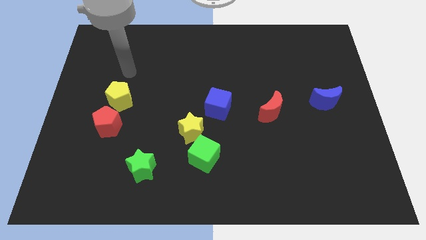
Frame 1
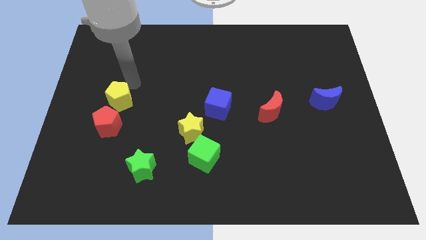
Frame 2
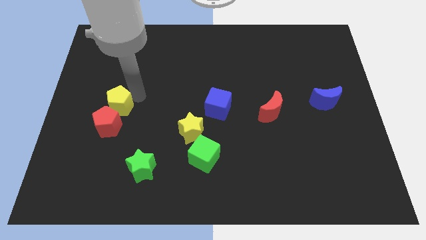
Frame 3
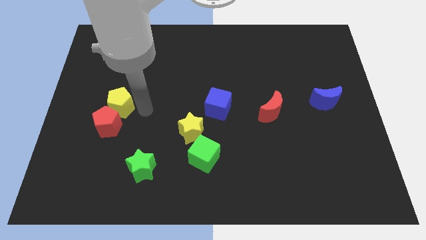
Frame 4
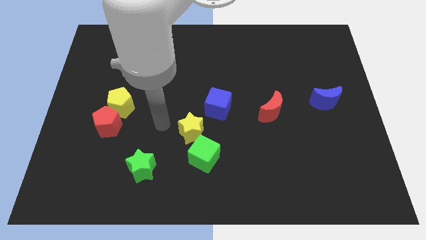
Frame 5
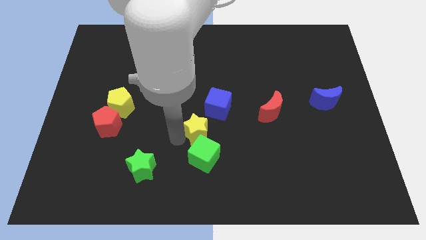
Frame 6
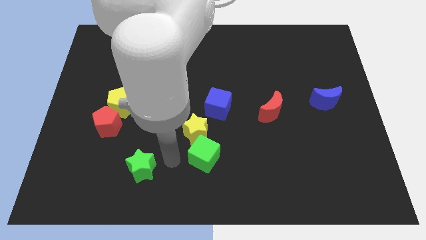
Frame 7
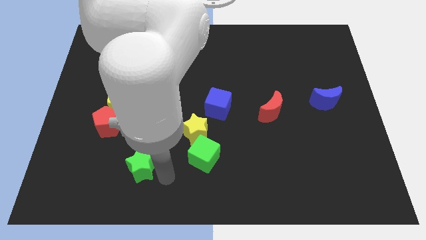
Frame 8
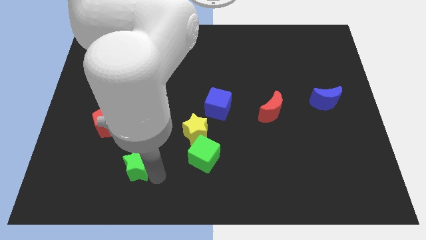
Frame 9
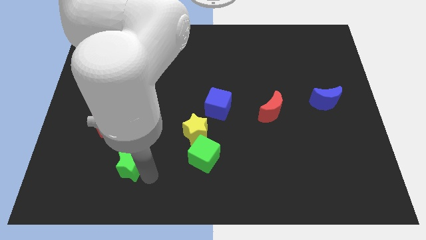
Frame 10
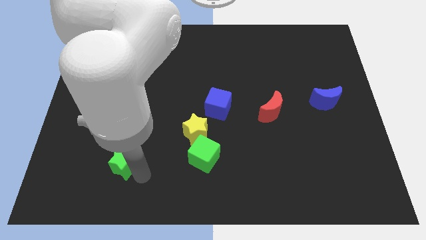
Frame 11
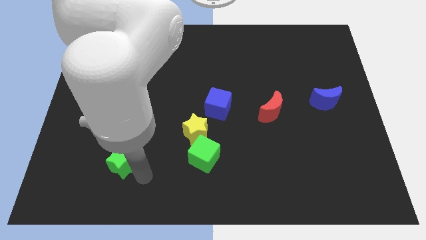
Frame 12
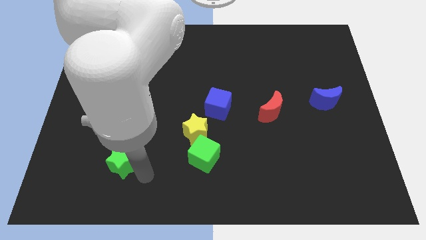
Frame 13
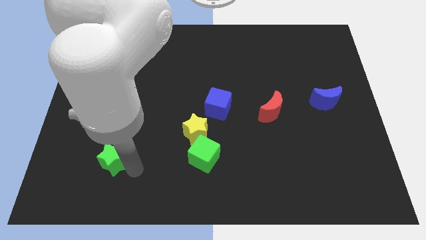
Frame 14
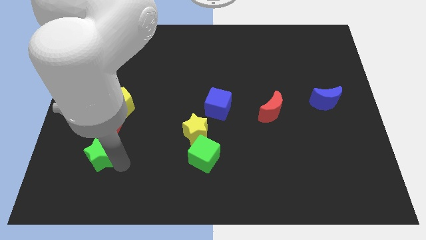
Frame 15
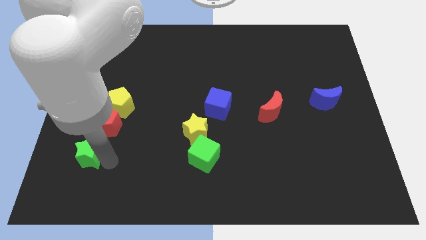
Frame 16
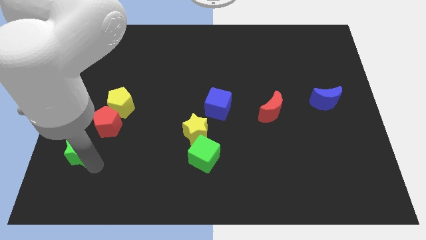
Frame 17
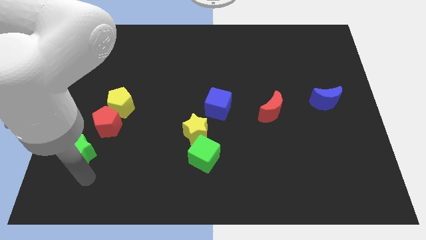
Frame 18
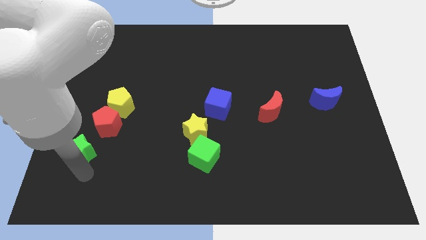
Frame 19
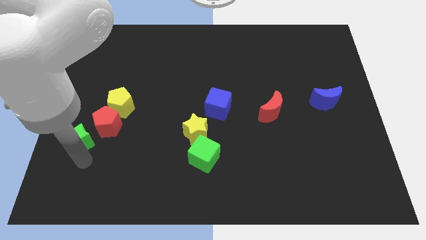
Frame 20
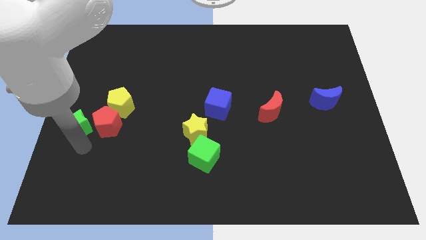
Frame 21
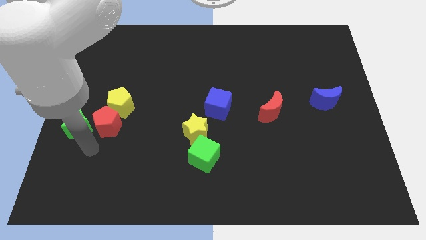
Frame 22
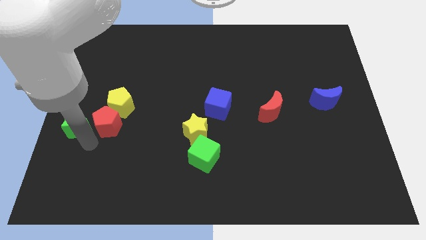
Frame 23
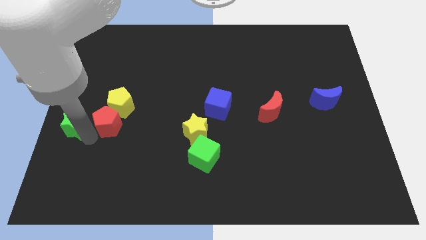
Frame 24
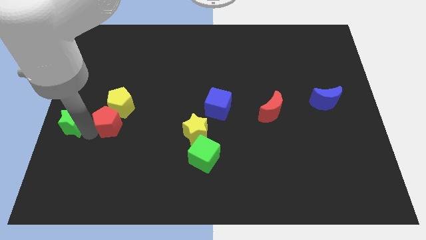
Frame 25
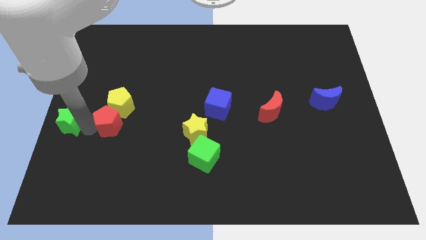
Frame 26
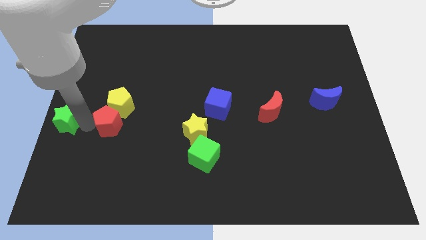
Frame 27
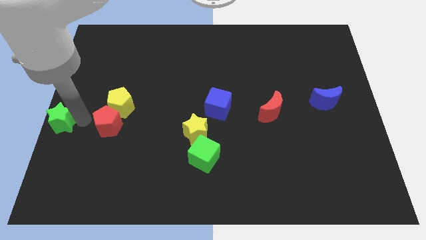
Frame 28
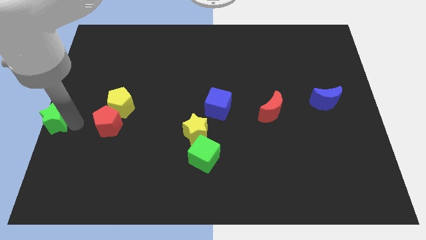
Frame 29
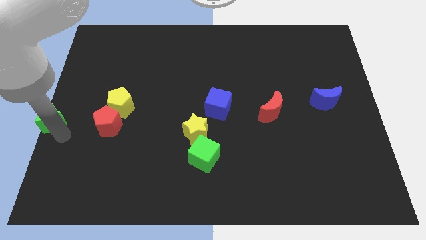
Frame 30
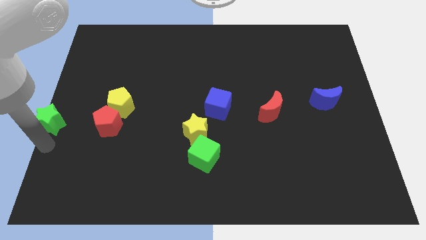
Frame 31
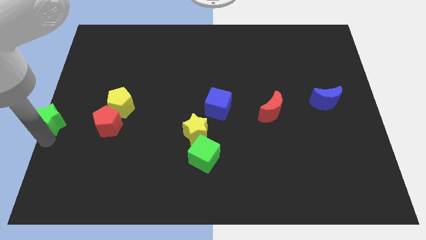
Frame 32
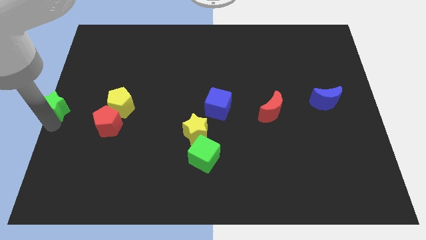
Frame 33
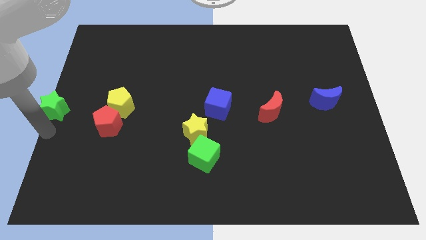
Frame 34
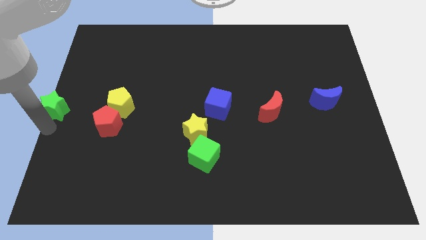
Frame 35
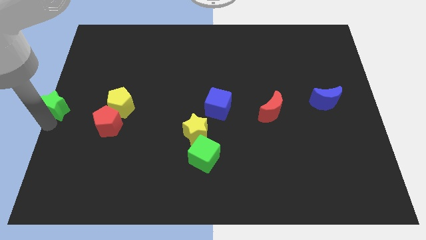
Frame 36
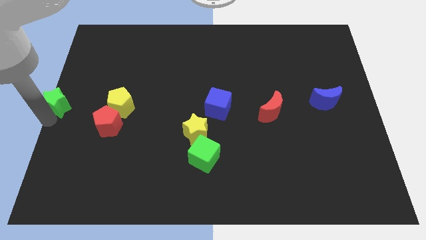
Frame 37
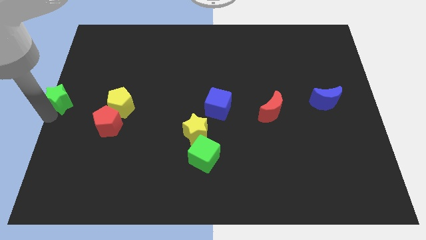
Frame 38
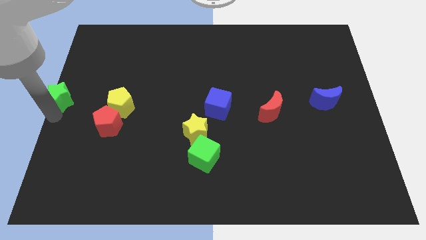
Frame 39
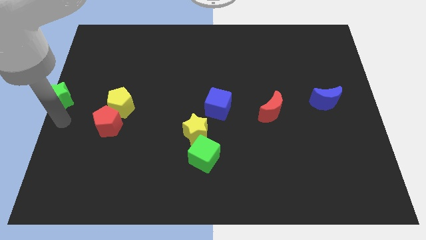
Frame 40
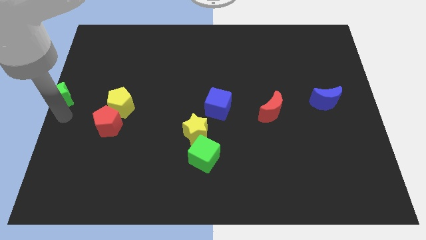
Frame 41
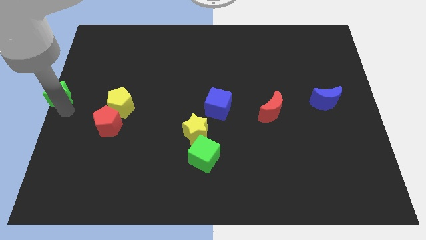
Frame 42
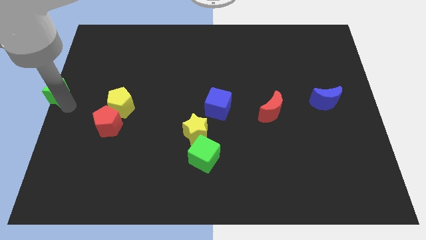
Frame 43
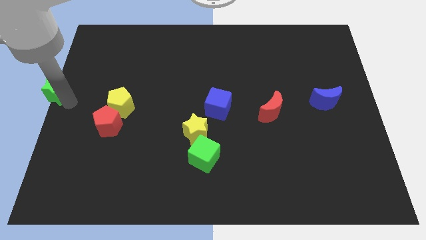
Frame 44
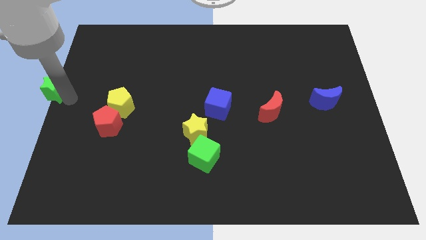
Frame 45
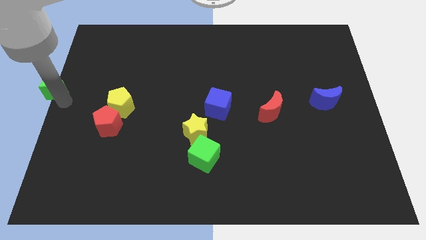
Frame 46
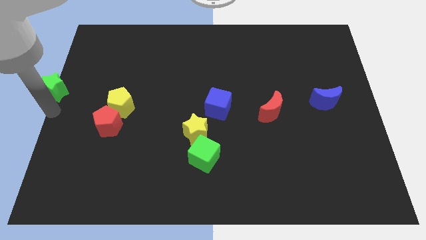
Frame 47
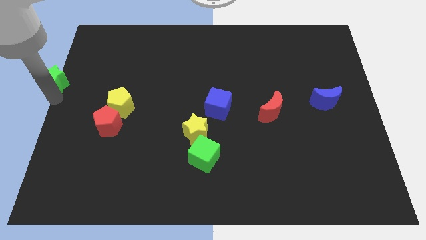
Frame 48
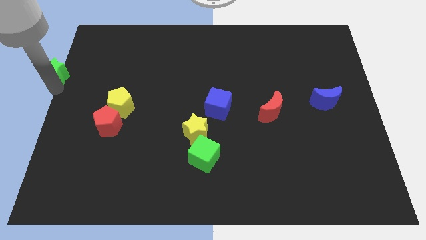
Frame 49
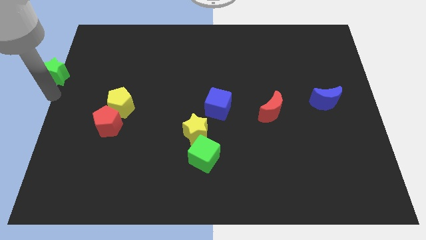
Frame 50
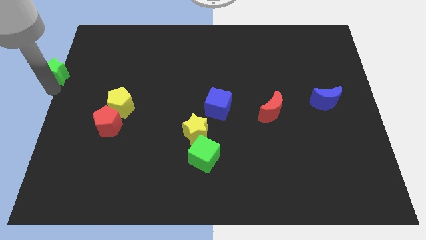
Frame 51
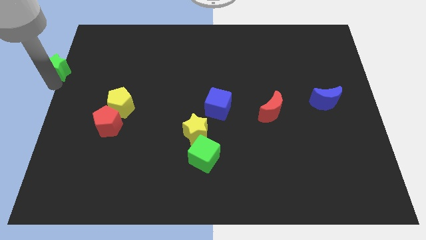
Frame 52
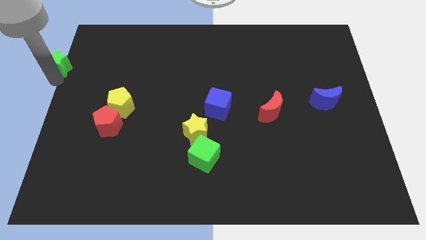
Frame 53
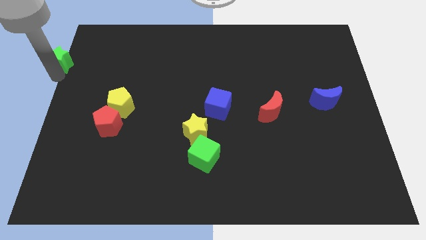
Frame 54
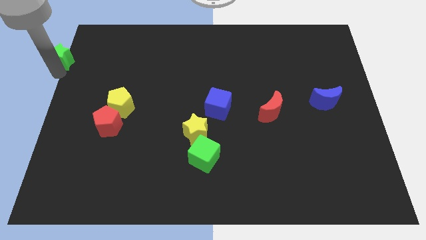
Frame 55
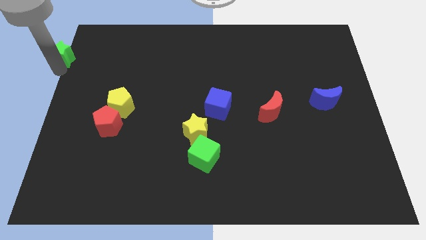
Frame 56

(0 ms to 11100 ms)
put the green star to the top left corner
